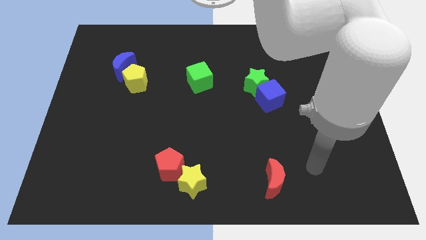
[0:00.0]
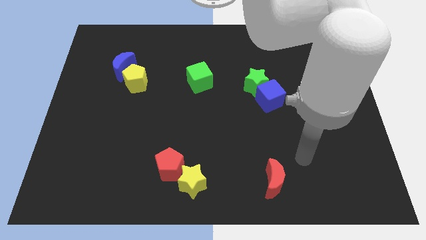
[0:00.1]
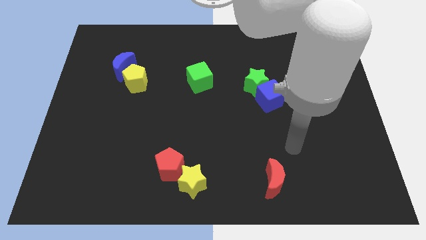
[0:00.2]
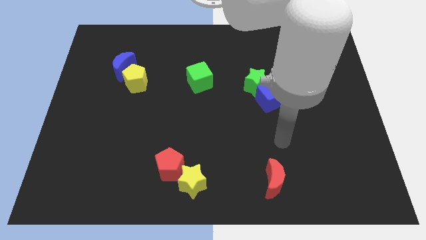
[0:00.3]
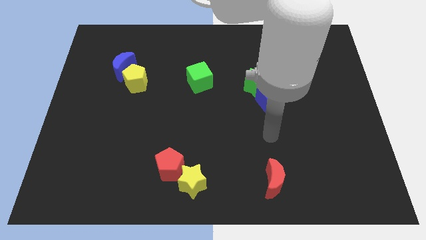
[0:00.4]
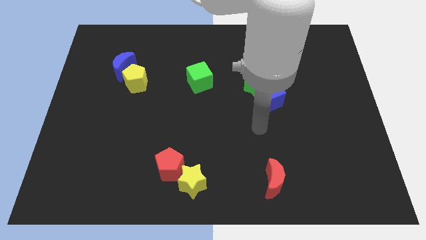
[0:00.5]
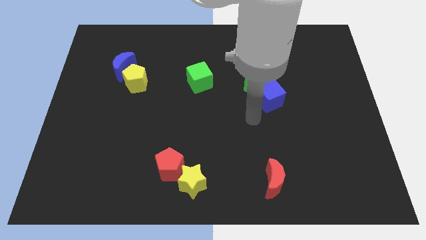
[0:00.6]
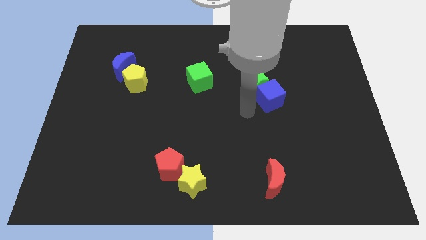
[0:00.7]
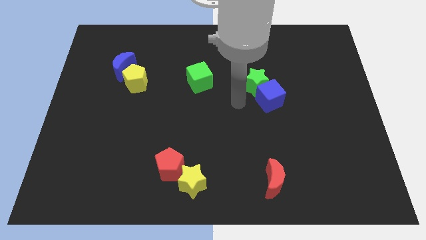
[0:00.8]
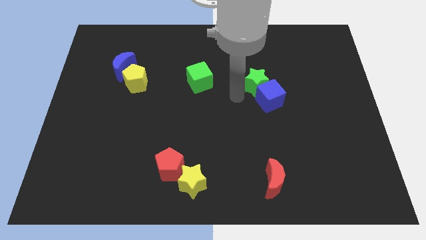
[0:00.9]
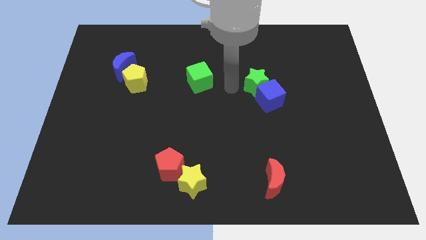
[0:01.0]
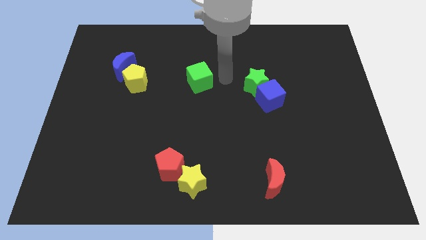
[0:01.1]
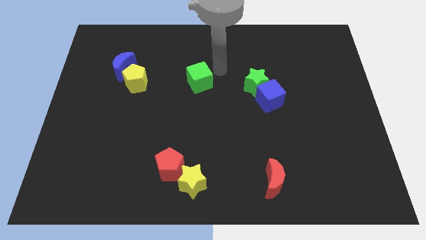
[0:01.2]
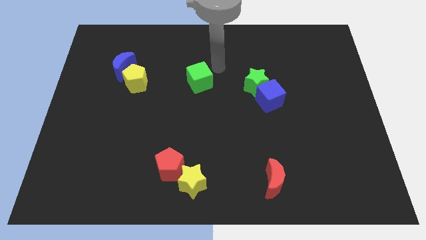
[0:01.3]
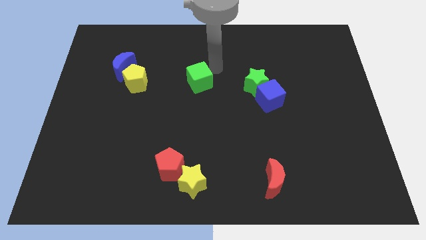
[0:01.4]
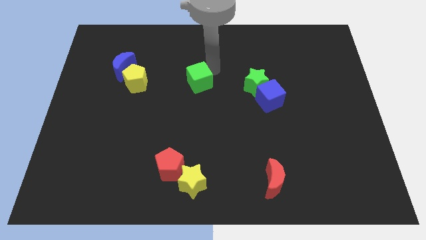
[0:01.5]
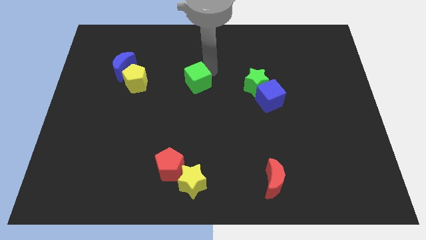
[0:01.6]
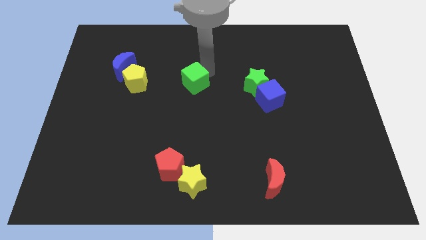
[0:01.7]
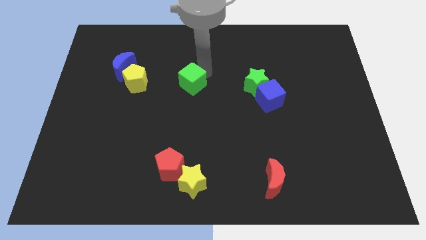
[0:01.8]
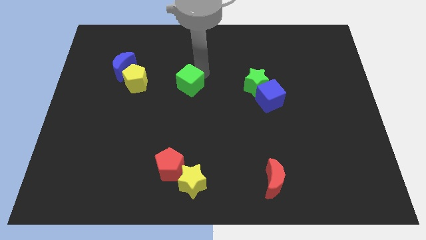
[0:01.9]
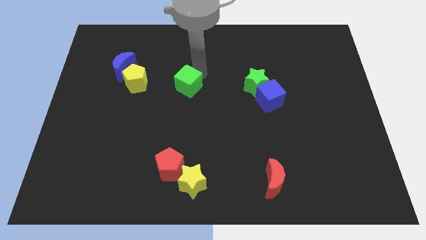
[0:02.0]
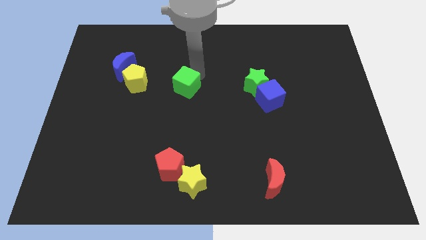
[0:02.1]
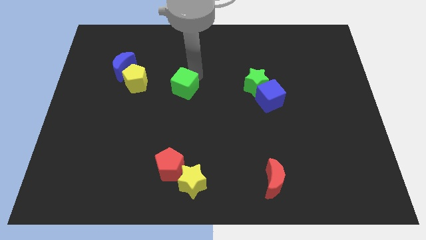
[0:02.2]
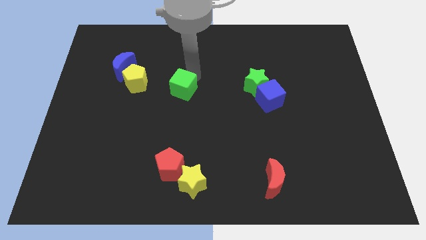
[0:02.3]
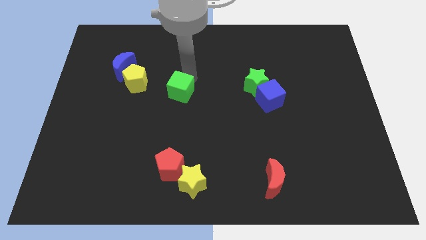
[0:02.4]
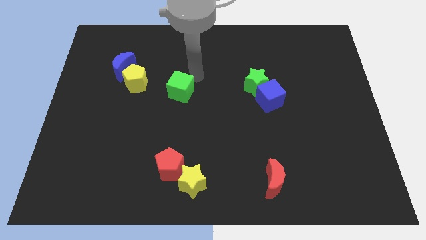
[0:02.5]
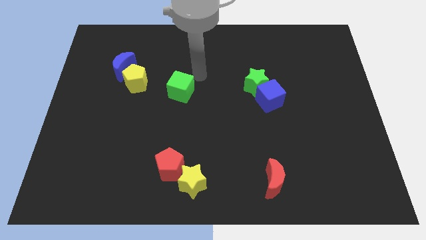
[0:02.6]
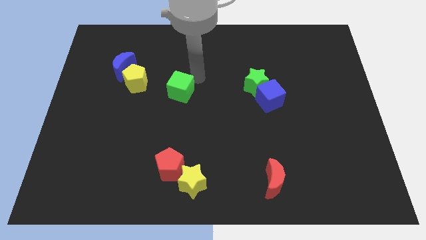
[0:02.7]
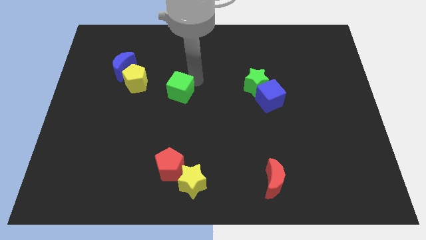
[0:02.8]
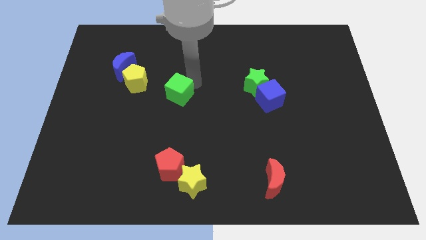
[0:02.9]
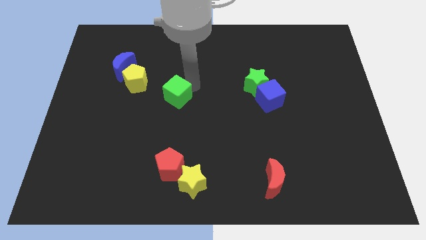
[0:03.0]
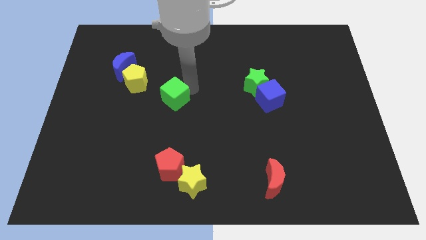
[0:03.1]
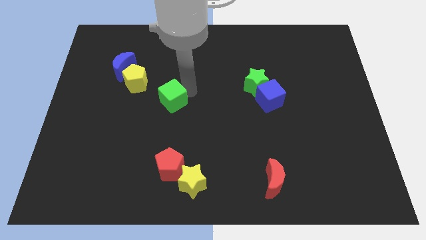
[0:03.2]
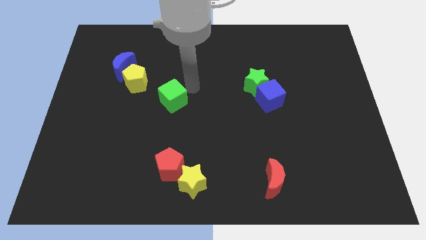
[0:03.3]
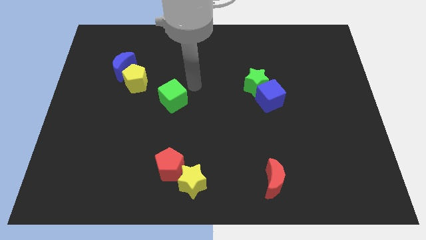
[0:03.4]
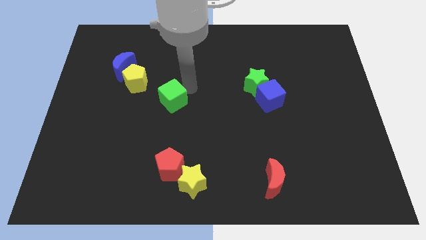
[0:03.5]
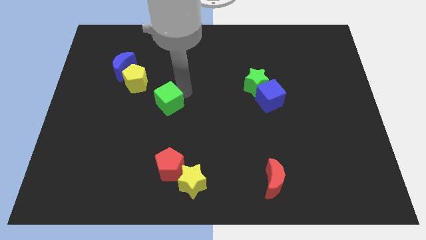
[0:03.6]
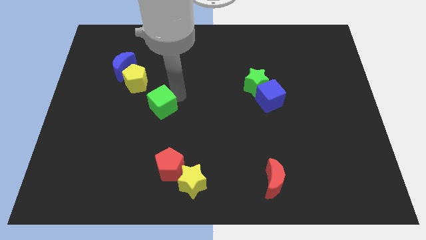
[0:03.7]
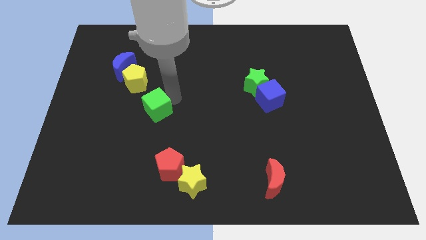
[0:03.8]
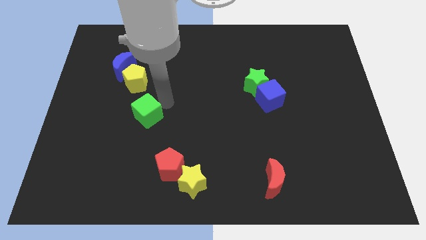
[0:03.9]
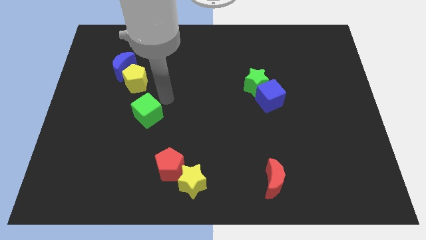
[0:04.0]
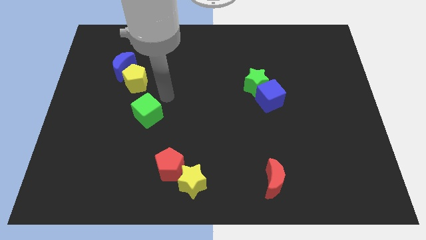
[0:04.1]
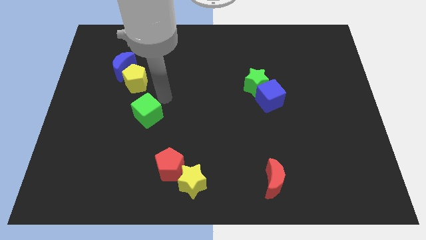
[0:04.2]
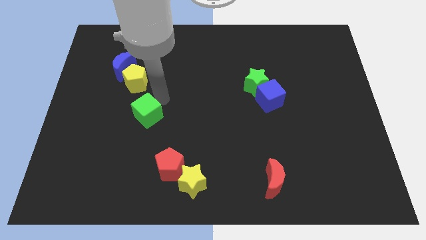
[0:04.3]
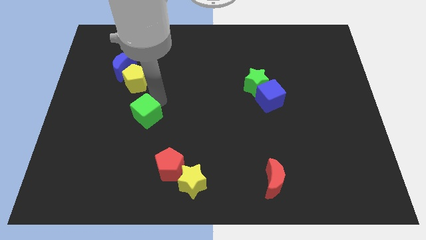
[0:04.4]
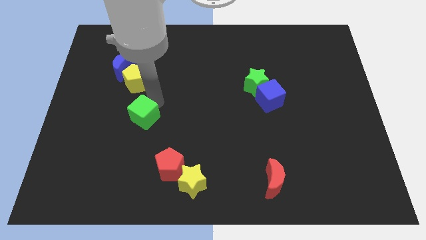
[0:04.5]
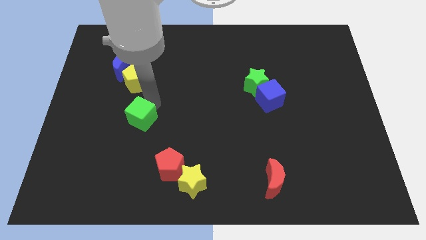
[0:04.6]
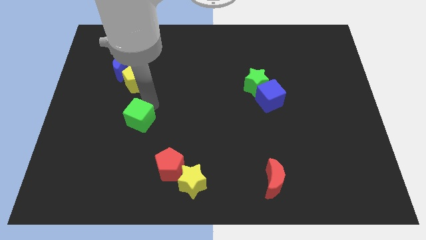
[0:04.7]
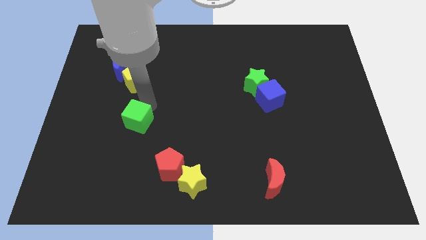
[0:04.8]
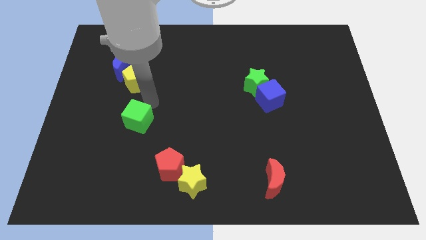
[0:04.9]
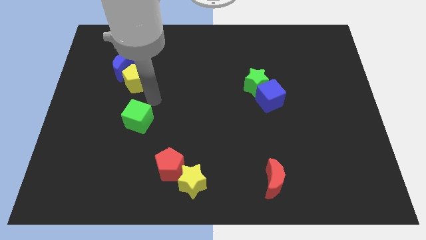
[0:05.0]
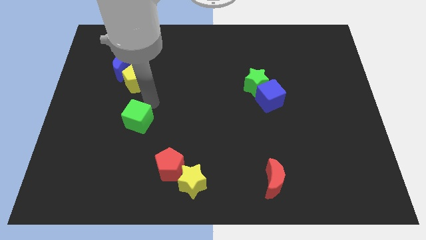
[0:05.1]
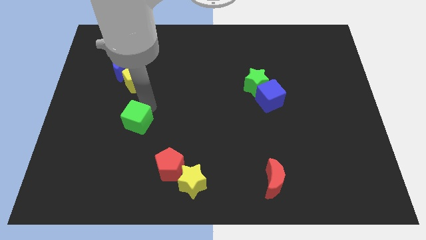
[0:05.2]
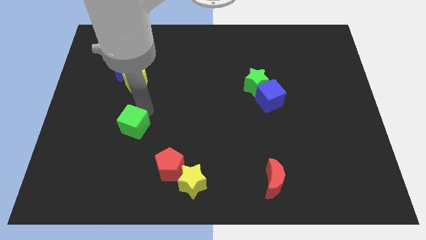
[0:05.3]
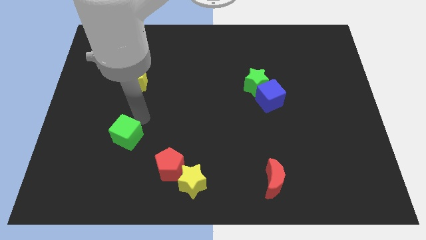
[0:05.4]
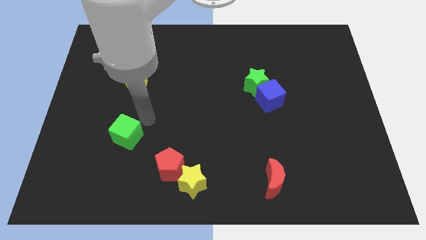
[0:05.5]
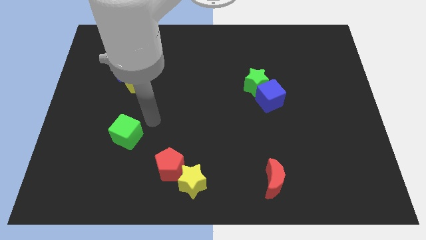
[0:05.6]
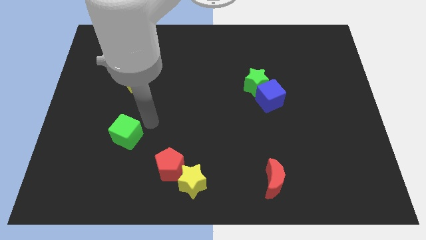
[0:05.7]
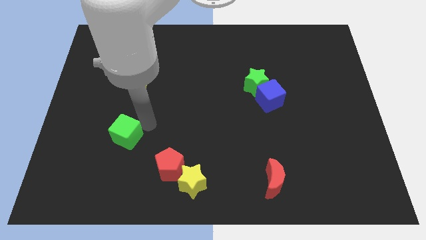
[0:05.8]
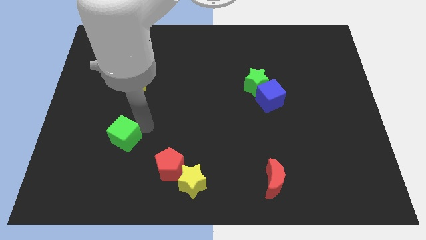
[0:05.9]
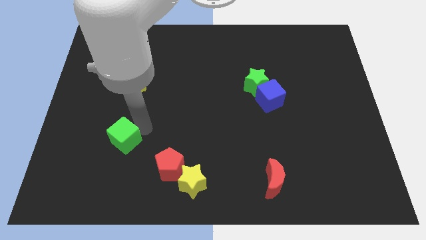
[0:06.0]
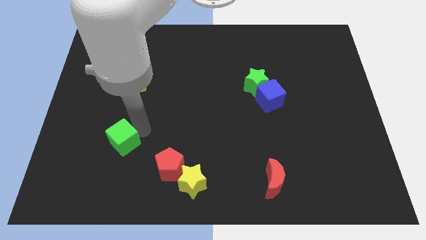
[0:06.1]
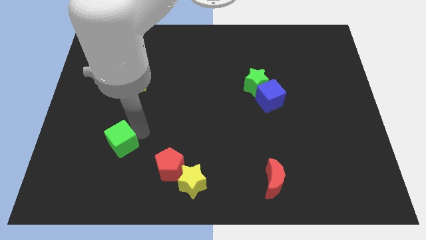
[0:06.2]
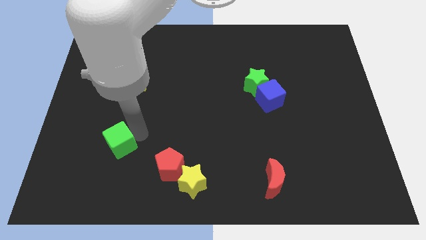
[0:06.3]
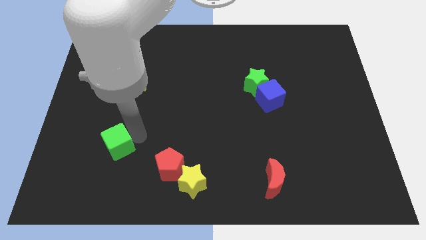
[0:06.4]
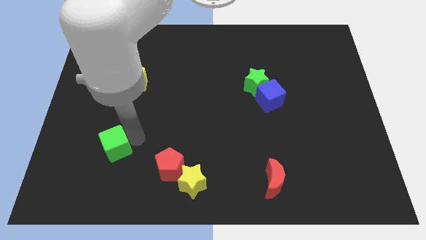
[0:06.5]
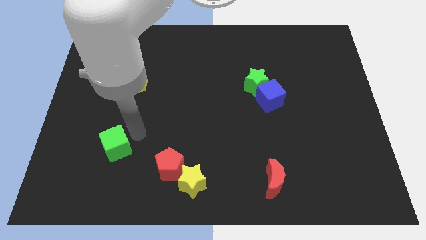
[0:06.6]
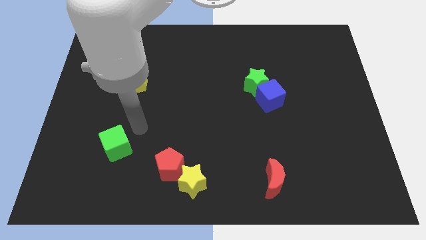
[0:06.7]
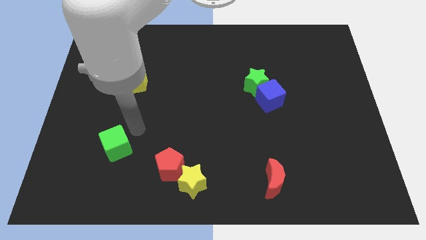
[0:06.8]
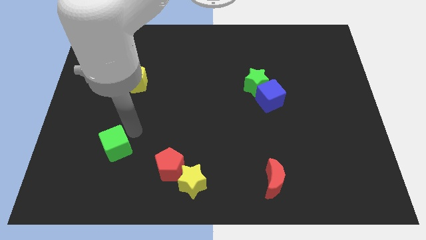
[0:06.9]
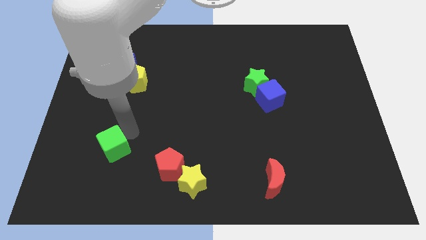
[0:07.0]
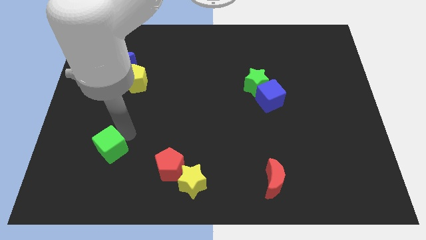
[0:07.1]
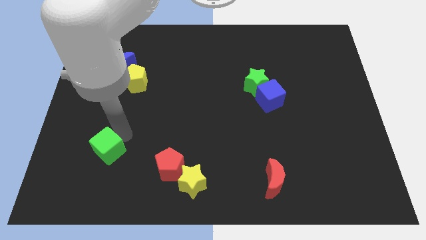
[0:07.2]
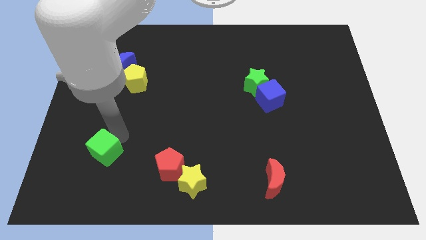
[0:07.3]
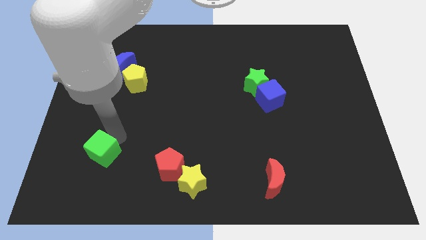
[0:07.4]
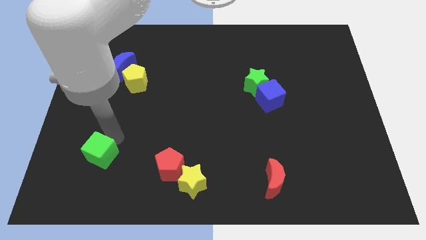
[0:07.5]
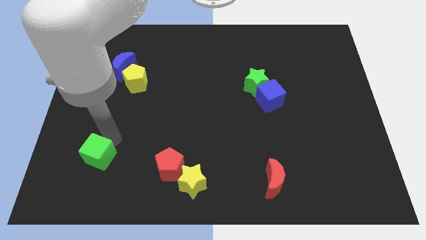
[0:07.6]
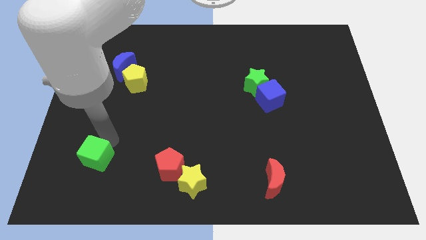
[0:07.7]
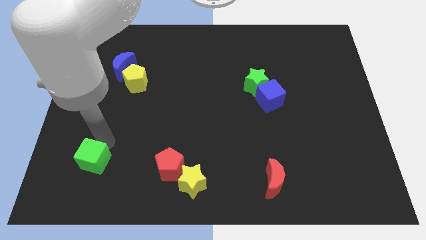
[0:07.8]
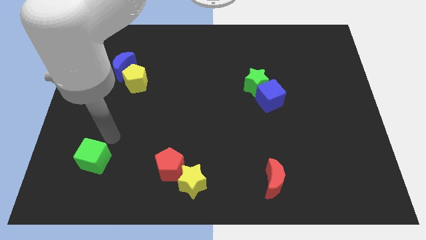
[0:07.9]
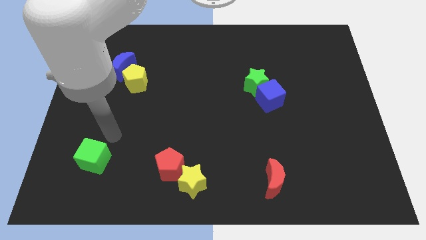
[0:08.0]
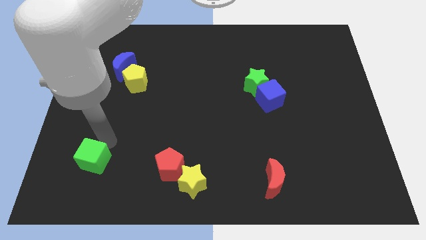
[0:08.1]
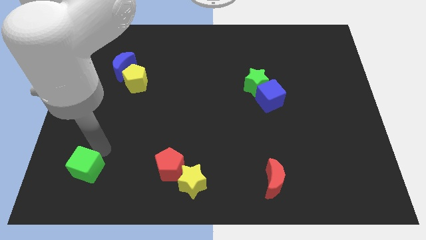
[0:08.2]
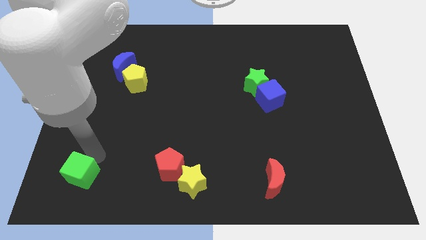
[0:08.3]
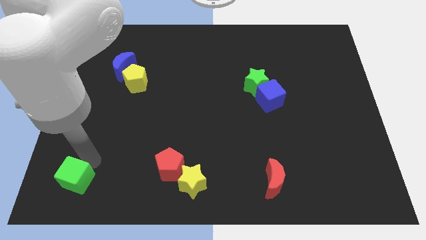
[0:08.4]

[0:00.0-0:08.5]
put the green cube to the bottom left corner
